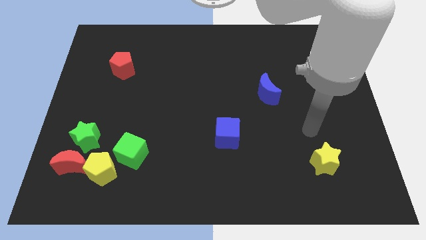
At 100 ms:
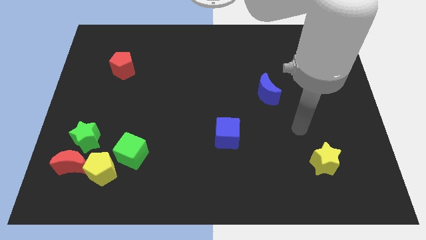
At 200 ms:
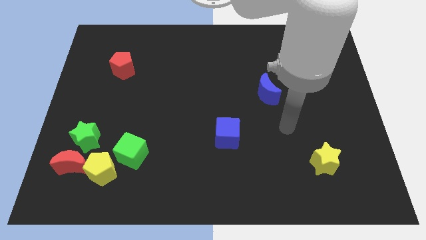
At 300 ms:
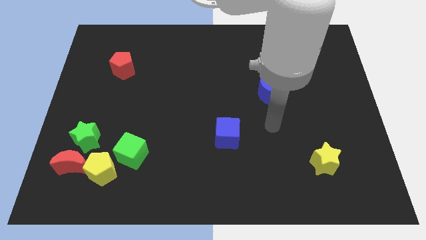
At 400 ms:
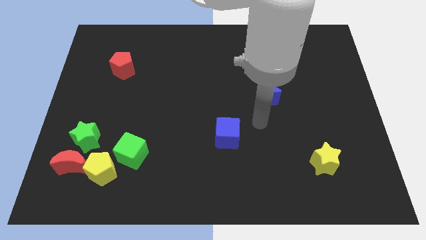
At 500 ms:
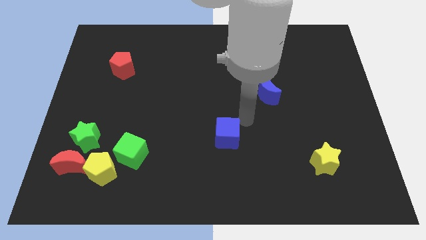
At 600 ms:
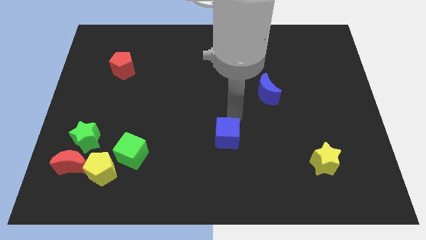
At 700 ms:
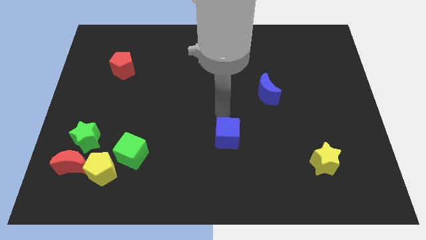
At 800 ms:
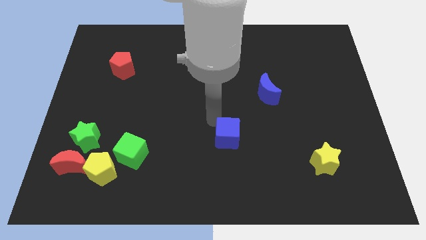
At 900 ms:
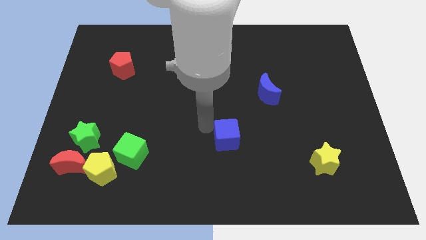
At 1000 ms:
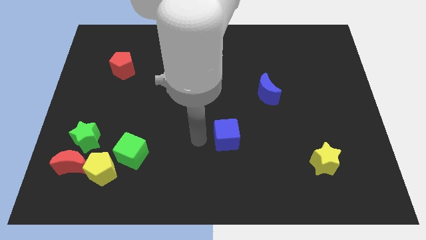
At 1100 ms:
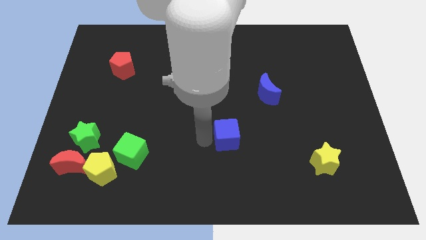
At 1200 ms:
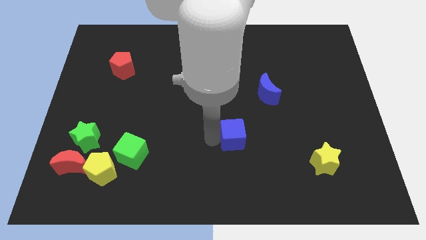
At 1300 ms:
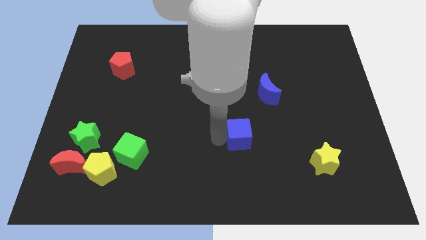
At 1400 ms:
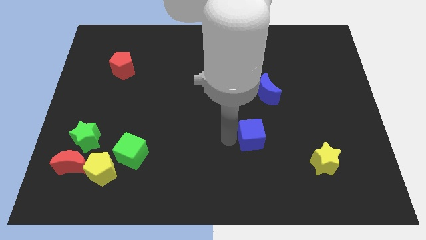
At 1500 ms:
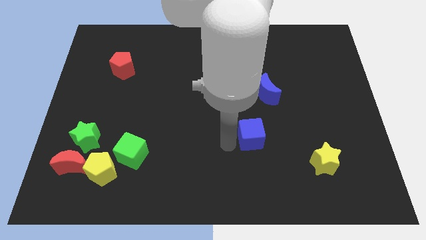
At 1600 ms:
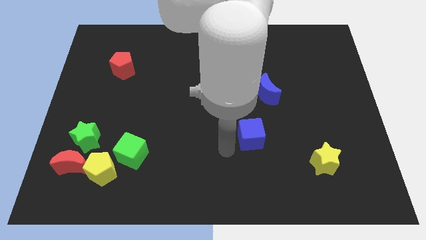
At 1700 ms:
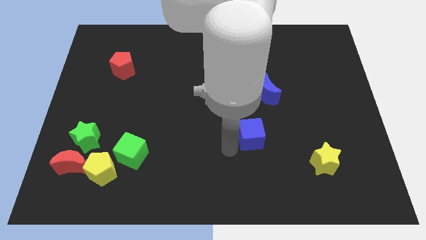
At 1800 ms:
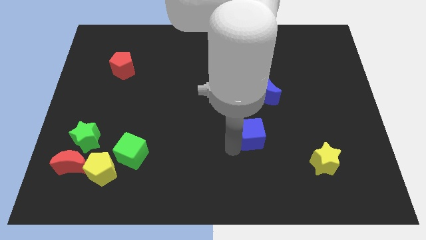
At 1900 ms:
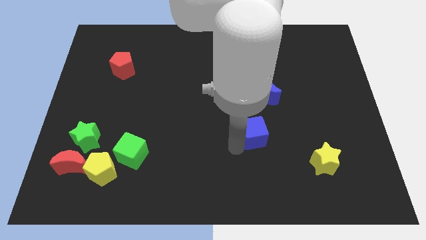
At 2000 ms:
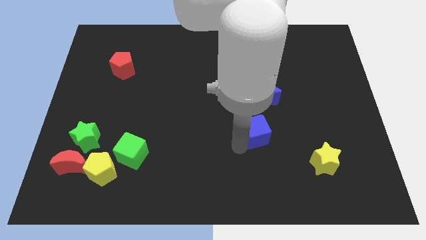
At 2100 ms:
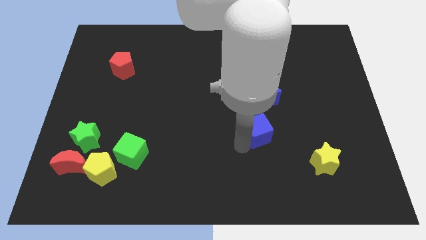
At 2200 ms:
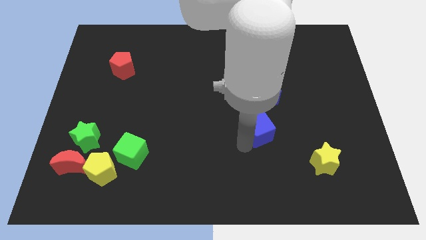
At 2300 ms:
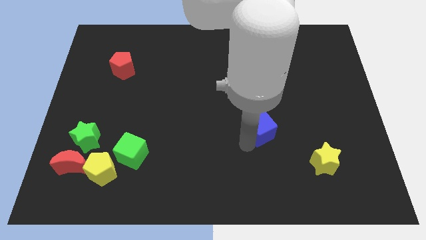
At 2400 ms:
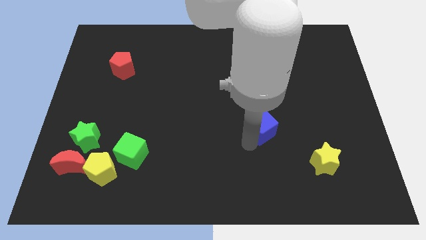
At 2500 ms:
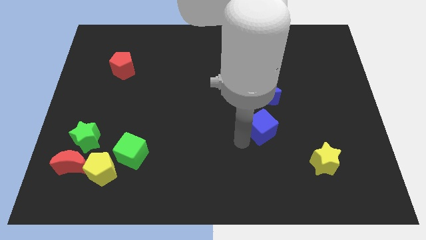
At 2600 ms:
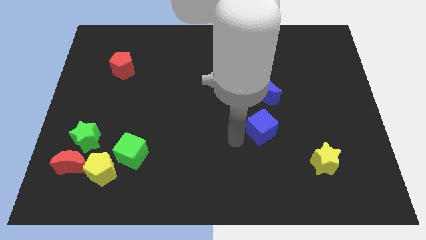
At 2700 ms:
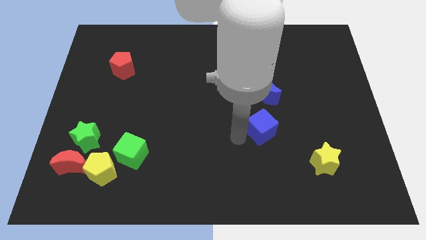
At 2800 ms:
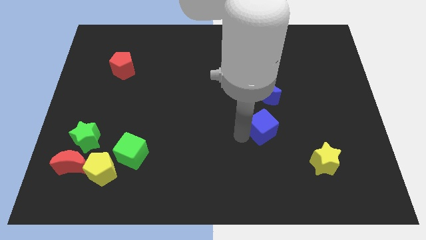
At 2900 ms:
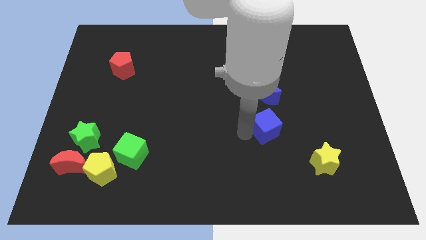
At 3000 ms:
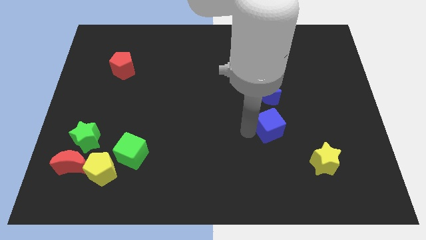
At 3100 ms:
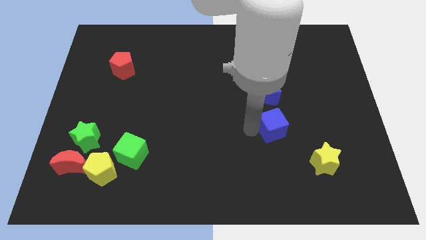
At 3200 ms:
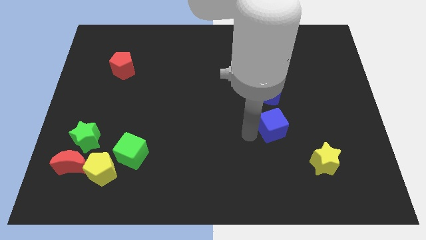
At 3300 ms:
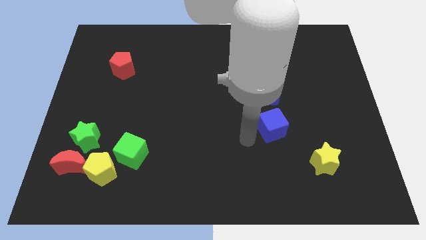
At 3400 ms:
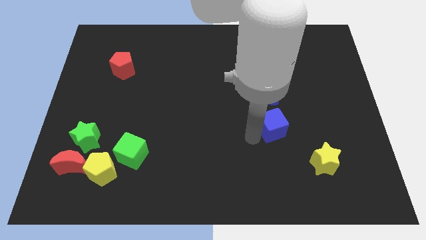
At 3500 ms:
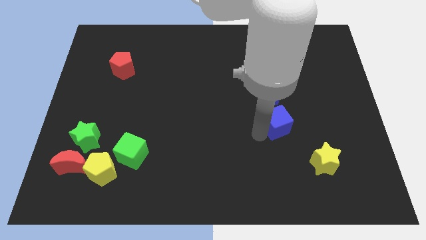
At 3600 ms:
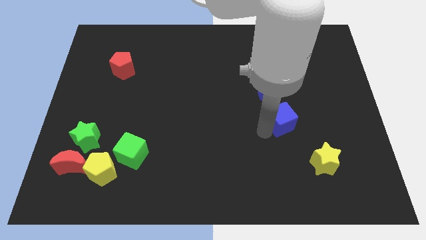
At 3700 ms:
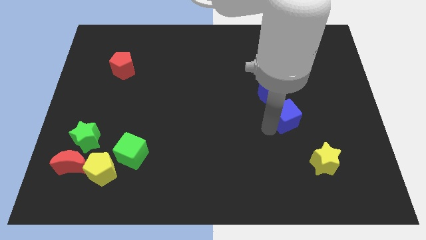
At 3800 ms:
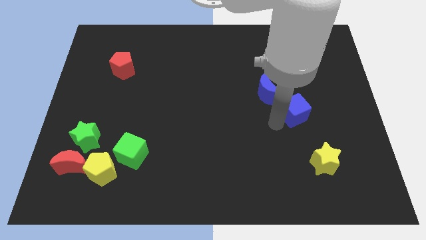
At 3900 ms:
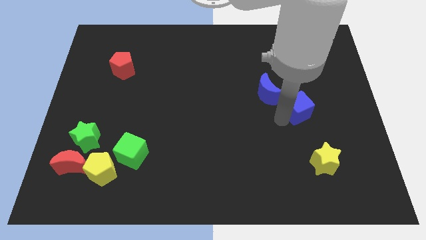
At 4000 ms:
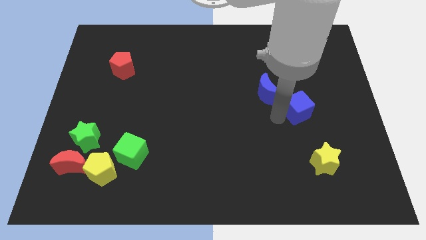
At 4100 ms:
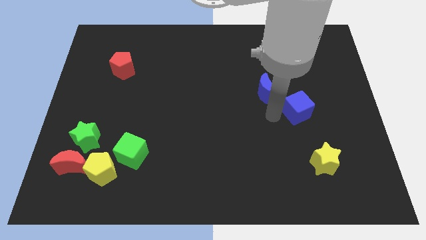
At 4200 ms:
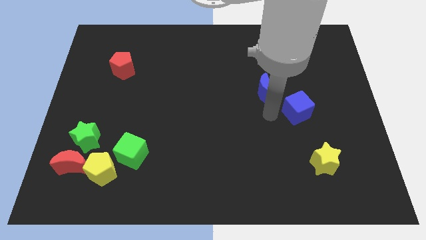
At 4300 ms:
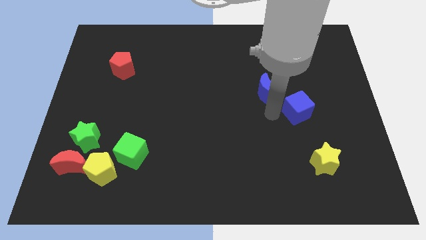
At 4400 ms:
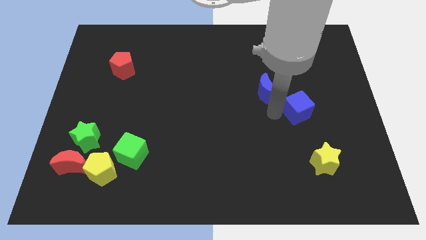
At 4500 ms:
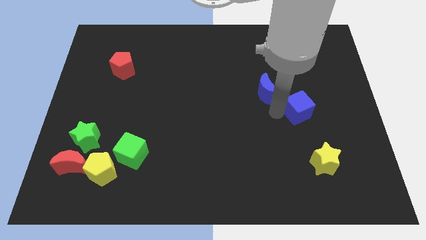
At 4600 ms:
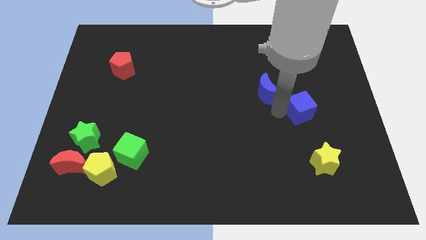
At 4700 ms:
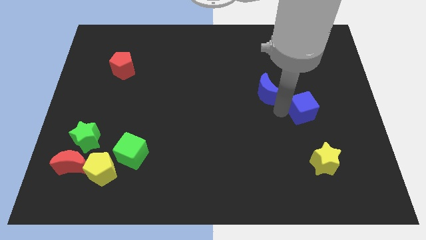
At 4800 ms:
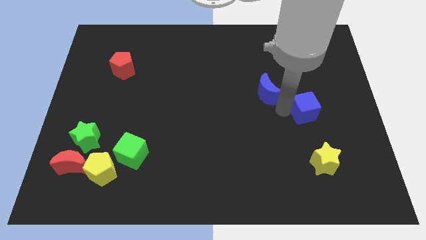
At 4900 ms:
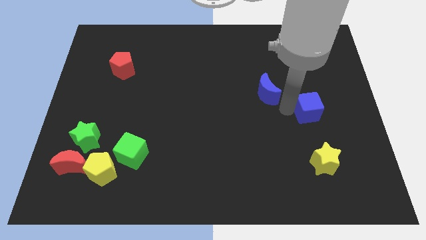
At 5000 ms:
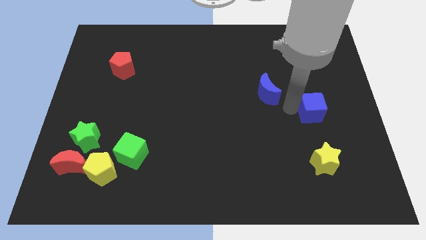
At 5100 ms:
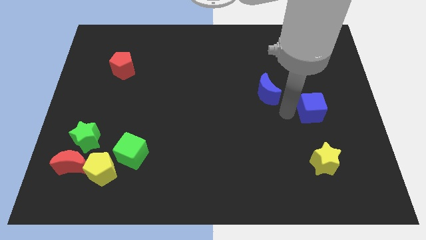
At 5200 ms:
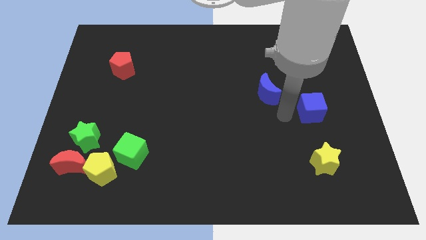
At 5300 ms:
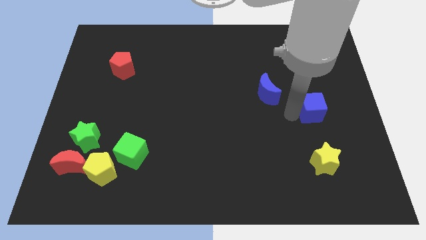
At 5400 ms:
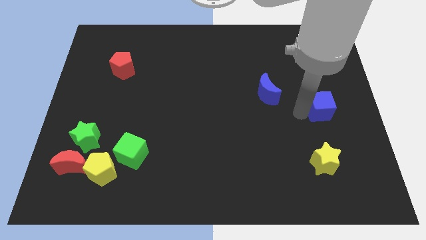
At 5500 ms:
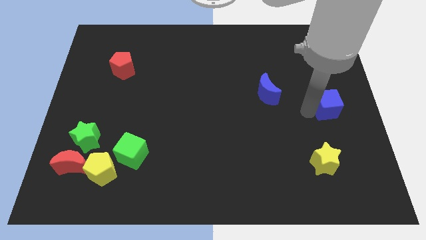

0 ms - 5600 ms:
push the blue cube to the center right
